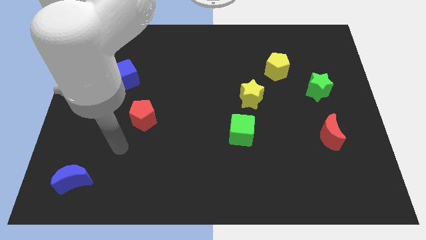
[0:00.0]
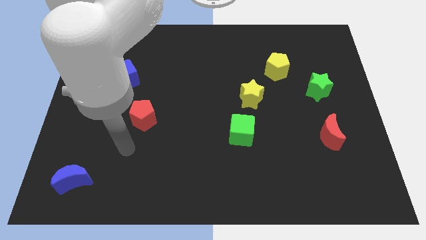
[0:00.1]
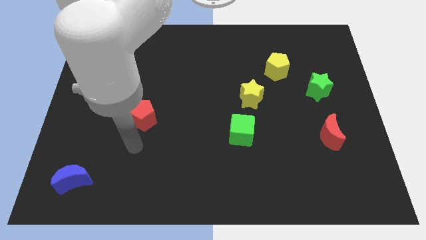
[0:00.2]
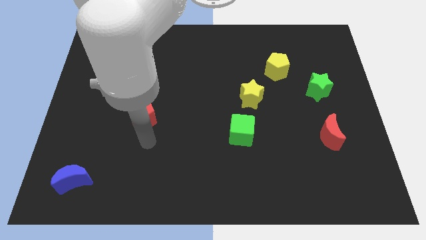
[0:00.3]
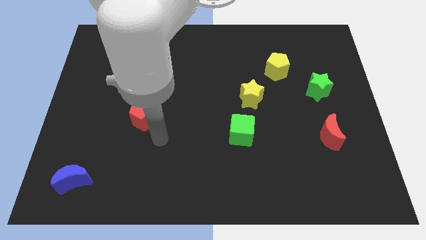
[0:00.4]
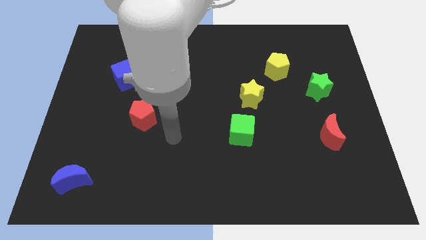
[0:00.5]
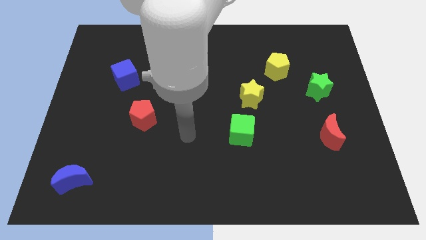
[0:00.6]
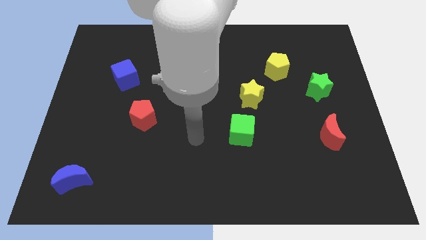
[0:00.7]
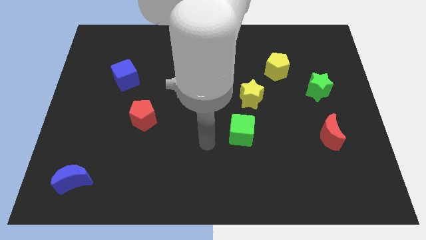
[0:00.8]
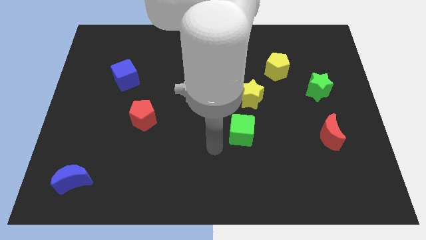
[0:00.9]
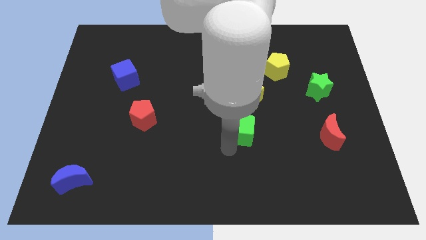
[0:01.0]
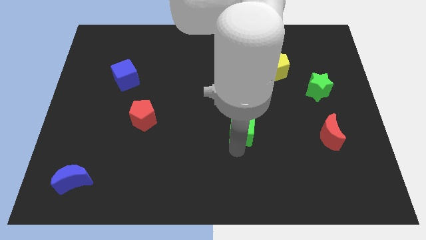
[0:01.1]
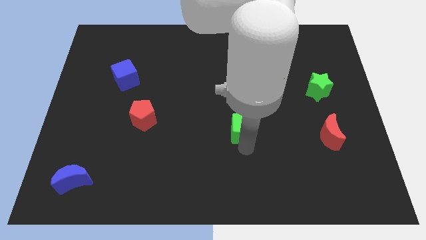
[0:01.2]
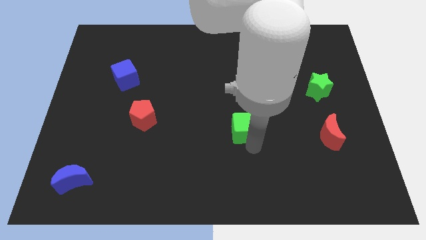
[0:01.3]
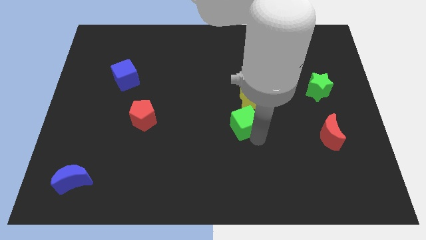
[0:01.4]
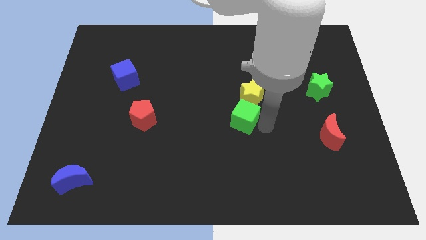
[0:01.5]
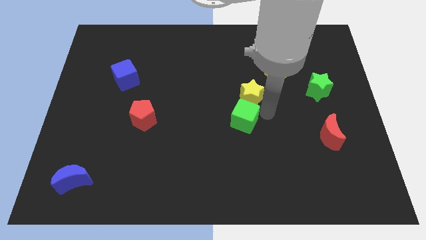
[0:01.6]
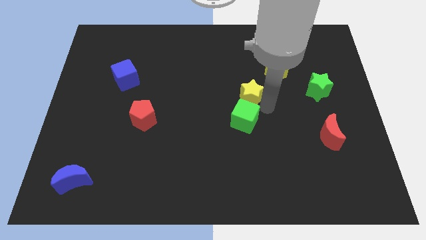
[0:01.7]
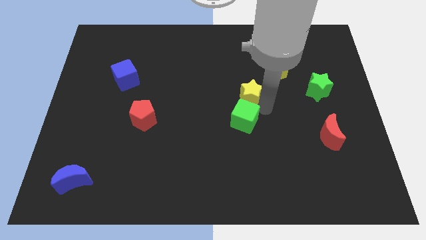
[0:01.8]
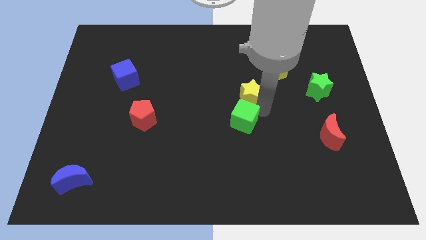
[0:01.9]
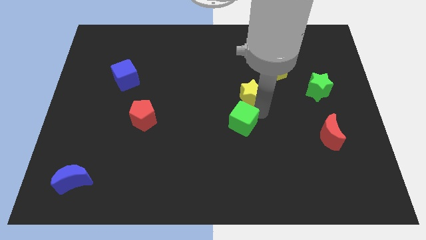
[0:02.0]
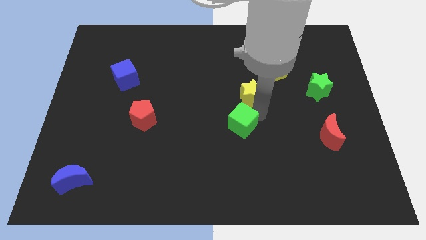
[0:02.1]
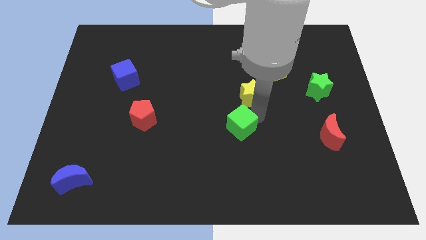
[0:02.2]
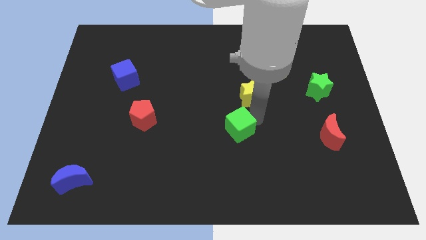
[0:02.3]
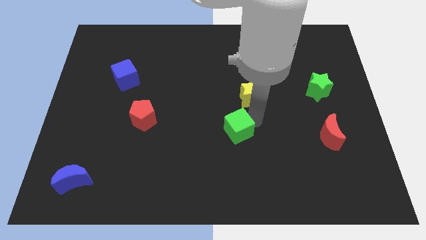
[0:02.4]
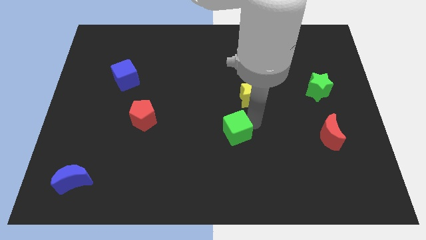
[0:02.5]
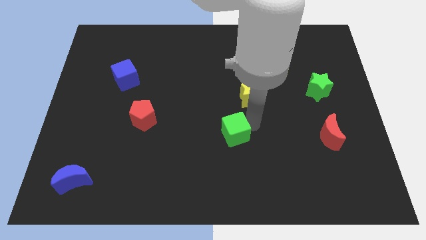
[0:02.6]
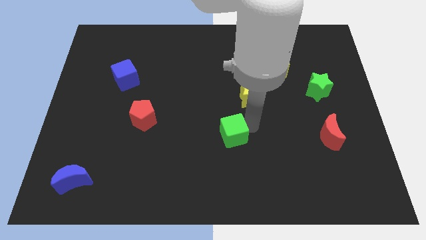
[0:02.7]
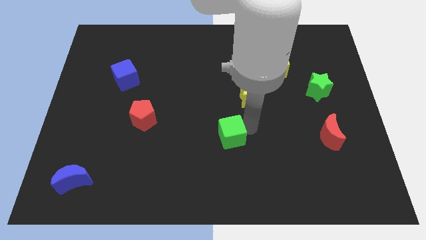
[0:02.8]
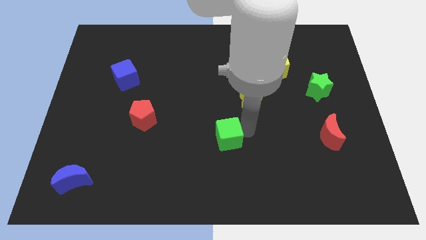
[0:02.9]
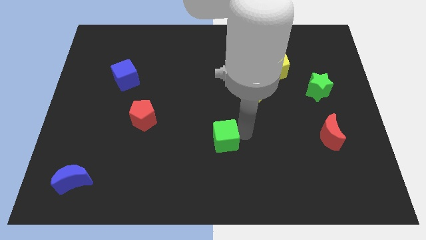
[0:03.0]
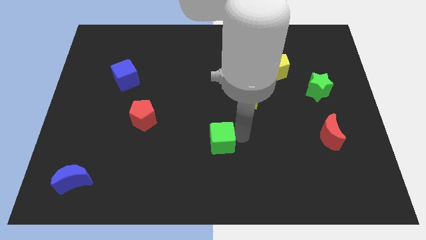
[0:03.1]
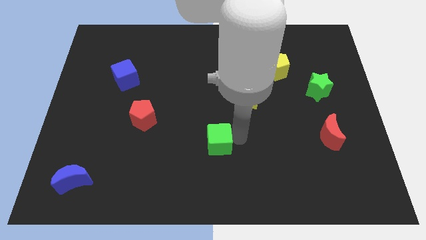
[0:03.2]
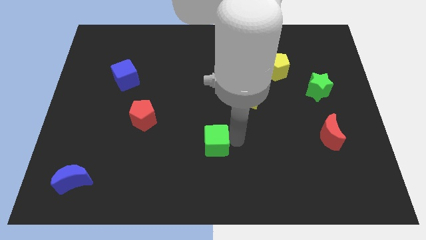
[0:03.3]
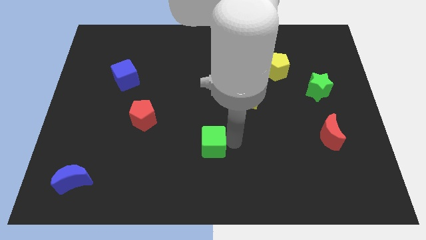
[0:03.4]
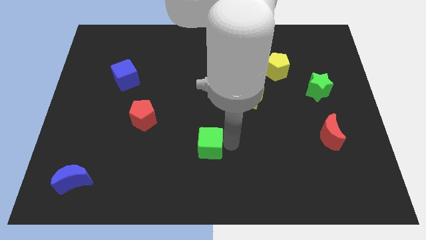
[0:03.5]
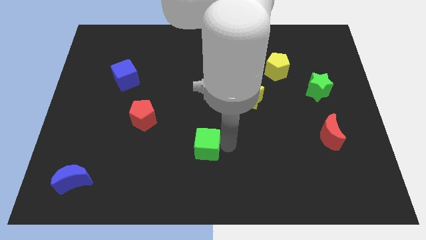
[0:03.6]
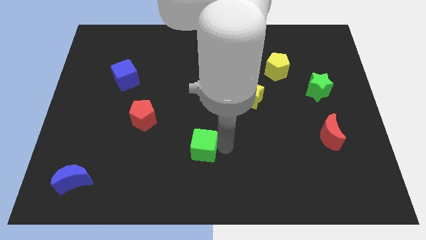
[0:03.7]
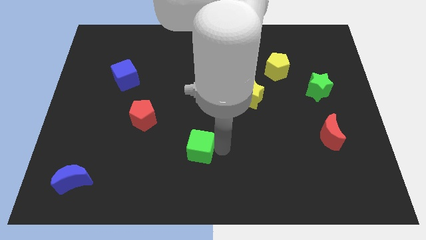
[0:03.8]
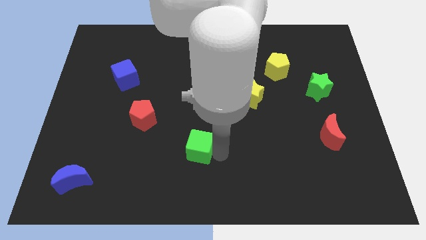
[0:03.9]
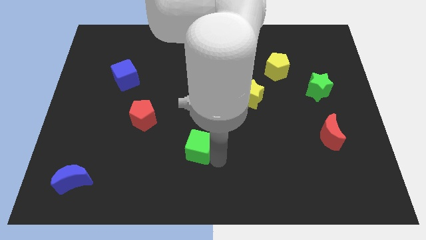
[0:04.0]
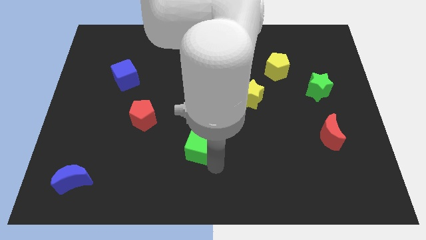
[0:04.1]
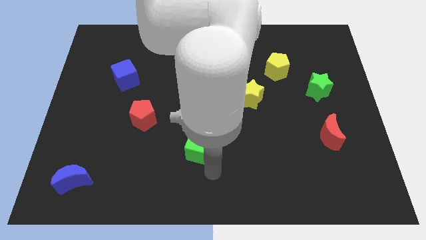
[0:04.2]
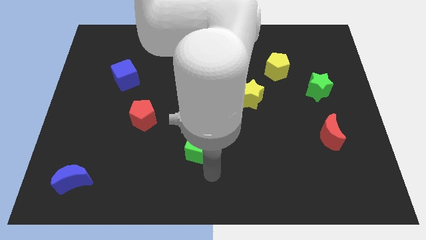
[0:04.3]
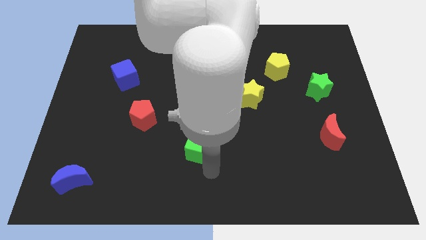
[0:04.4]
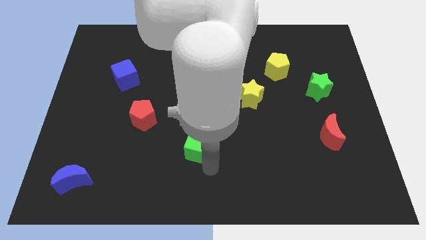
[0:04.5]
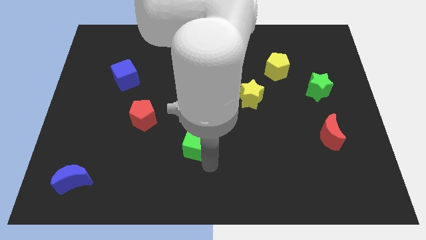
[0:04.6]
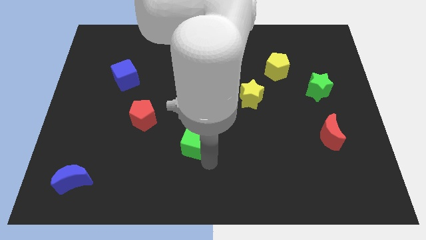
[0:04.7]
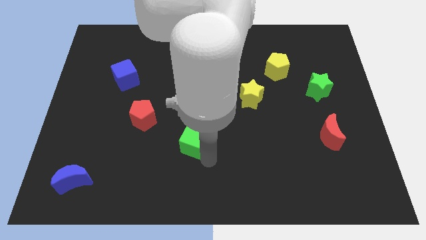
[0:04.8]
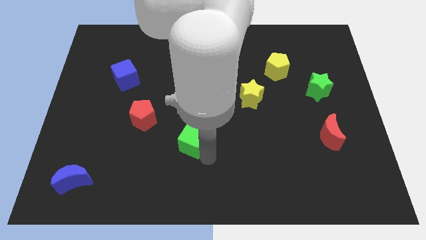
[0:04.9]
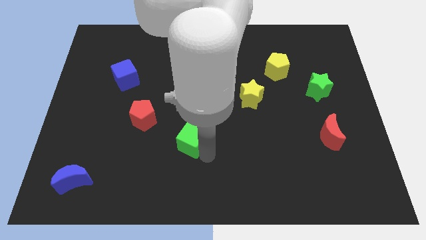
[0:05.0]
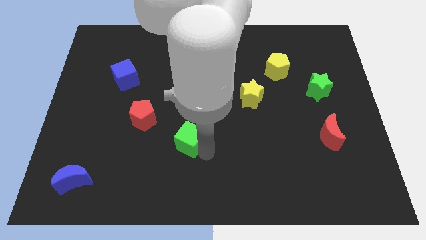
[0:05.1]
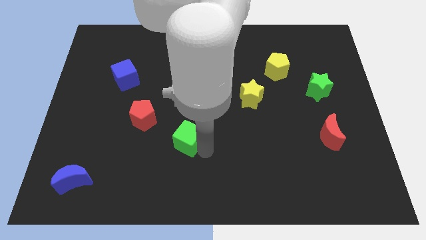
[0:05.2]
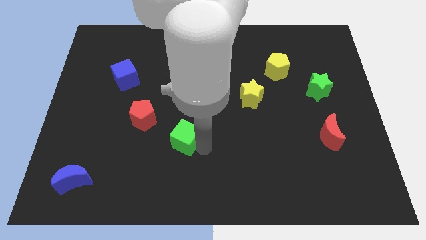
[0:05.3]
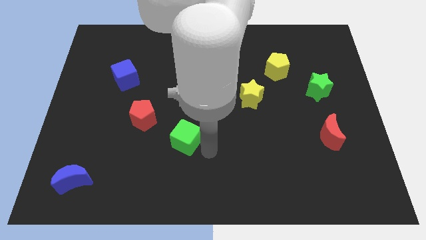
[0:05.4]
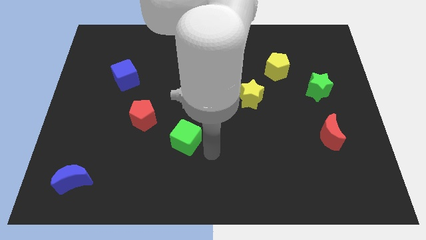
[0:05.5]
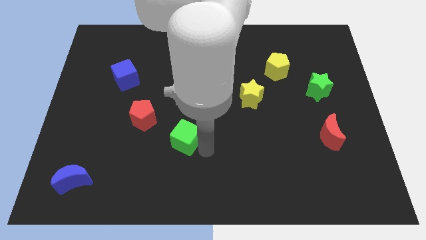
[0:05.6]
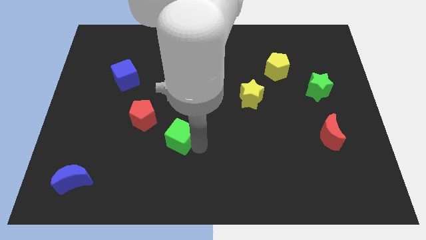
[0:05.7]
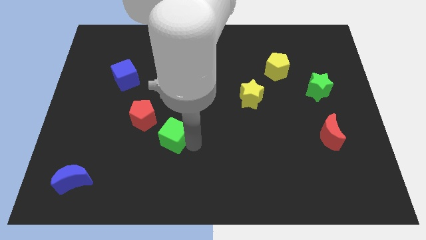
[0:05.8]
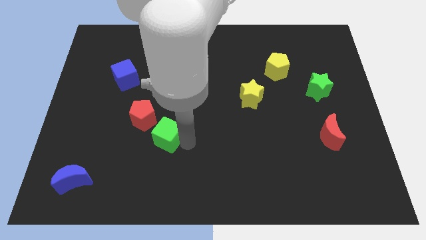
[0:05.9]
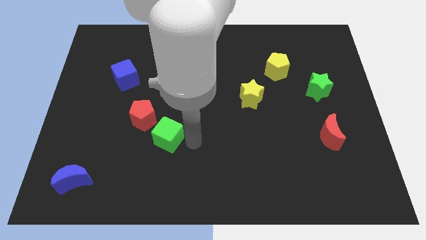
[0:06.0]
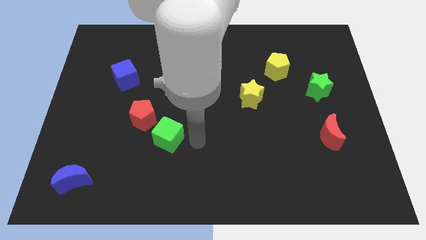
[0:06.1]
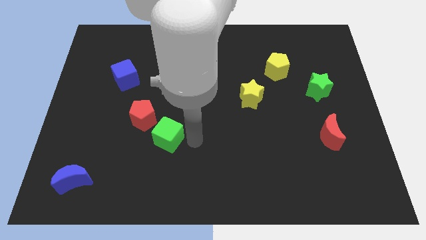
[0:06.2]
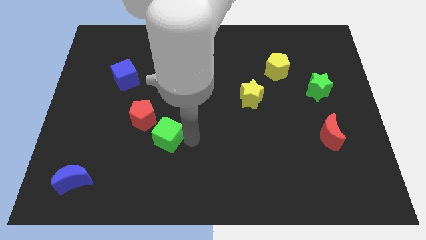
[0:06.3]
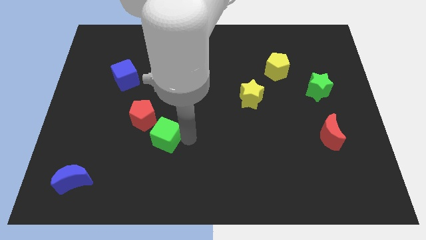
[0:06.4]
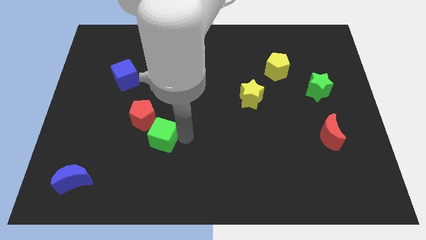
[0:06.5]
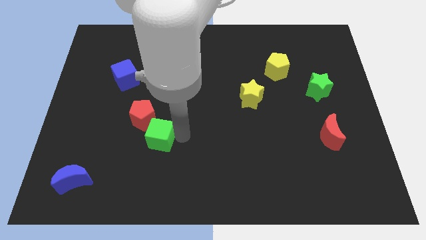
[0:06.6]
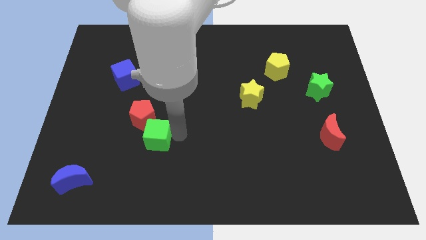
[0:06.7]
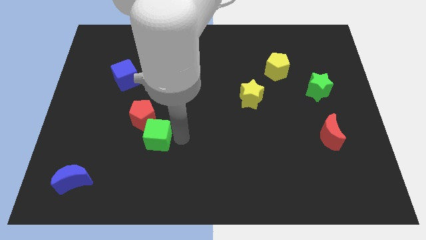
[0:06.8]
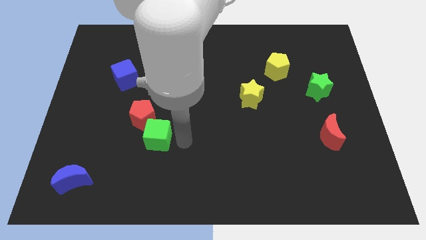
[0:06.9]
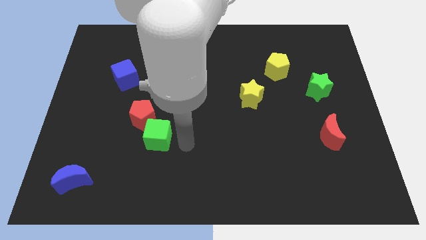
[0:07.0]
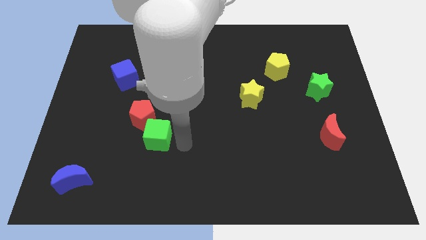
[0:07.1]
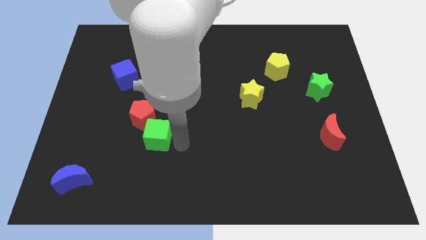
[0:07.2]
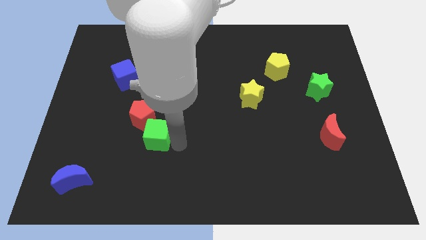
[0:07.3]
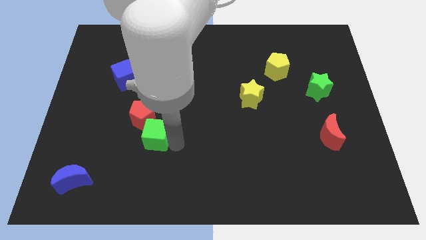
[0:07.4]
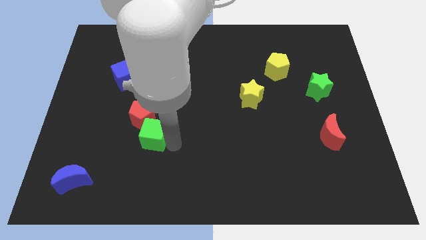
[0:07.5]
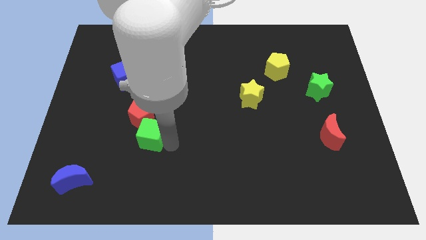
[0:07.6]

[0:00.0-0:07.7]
move the green cube to the left

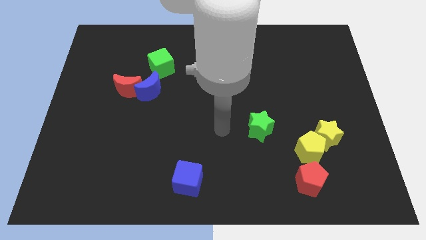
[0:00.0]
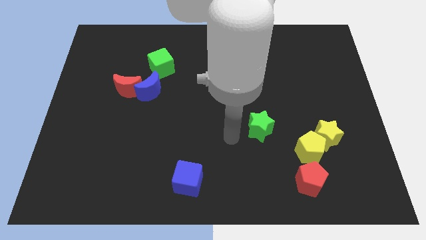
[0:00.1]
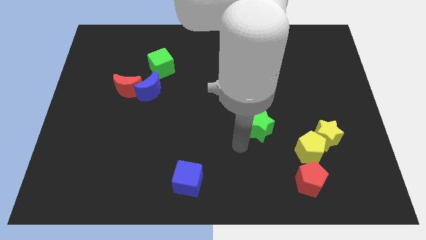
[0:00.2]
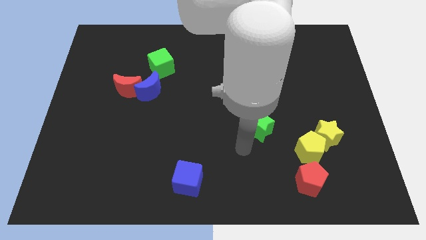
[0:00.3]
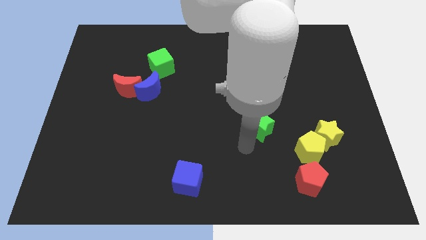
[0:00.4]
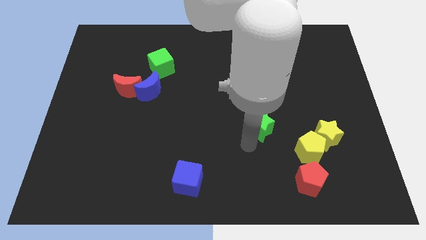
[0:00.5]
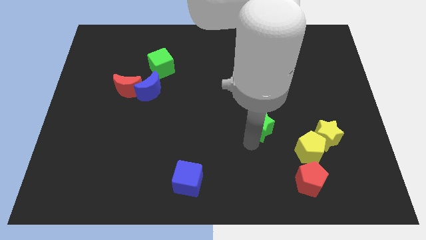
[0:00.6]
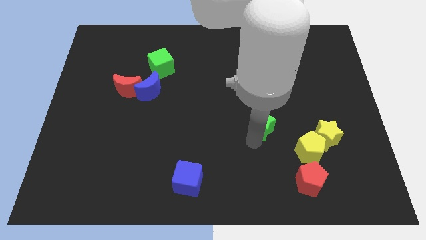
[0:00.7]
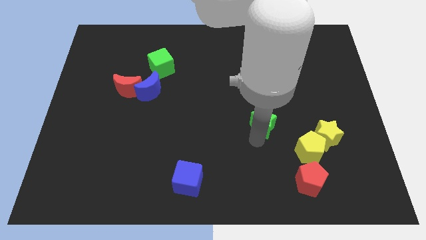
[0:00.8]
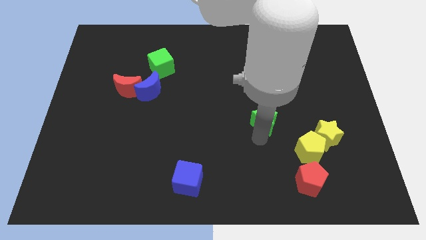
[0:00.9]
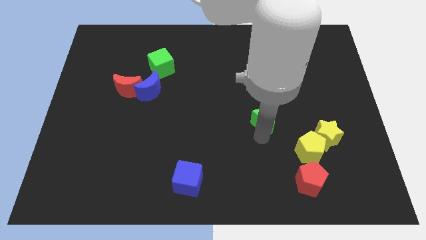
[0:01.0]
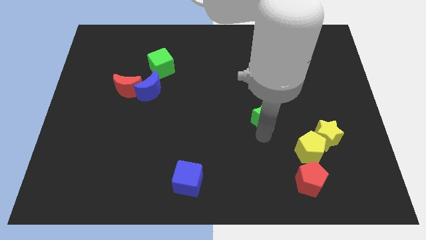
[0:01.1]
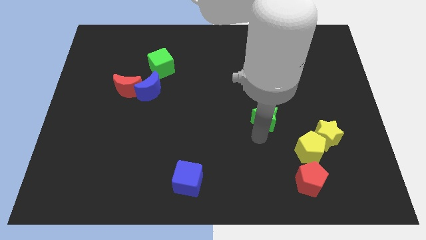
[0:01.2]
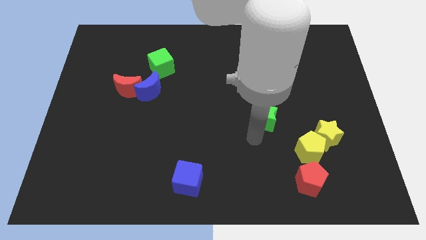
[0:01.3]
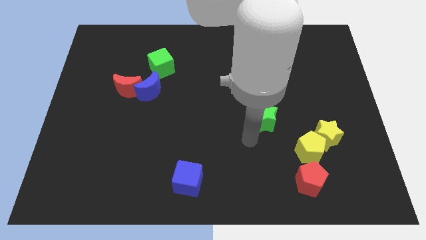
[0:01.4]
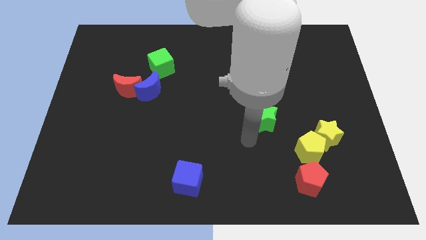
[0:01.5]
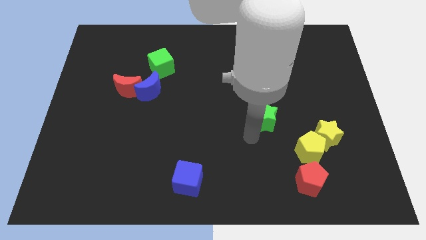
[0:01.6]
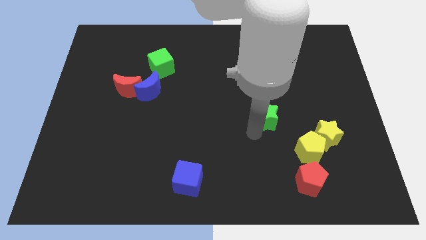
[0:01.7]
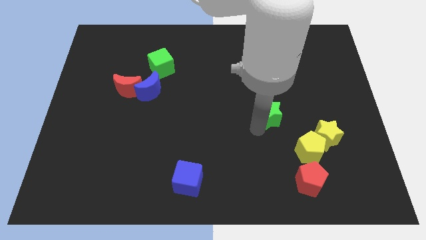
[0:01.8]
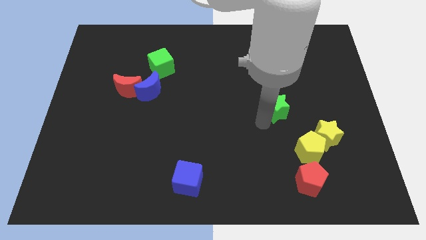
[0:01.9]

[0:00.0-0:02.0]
slightly move the green star up and to the right
